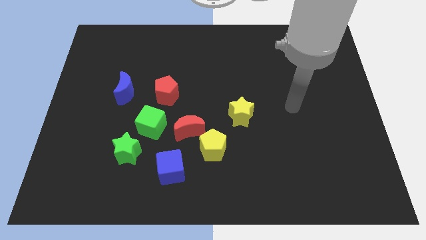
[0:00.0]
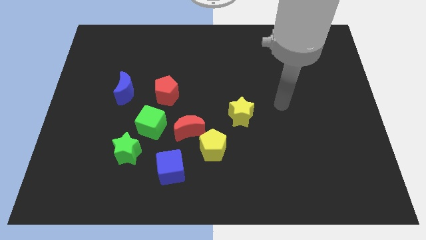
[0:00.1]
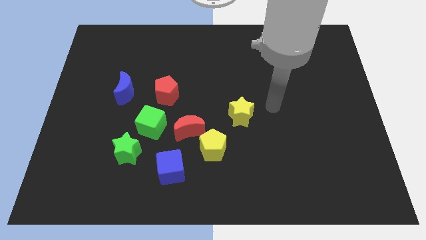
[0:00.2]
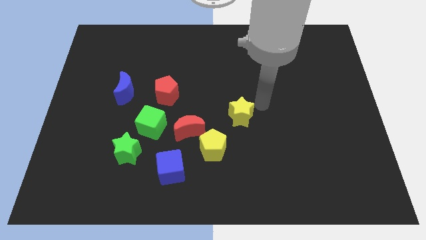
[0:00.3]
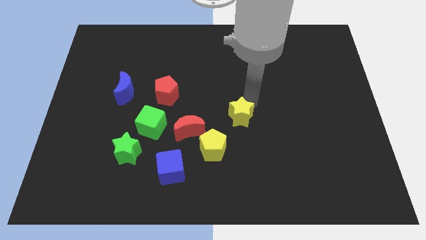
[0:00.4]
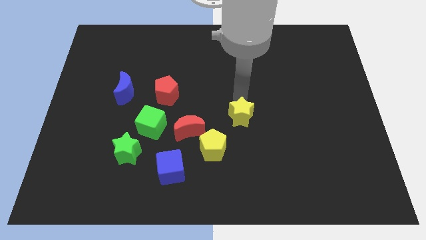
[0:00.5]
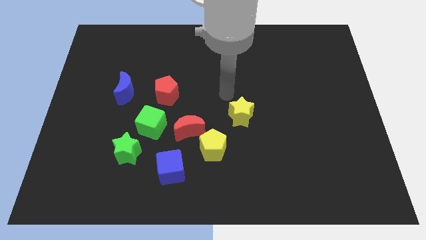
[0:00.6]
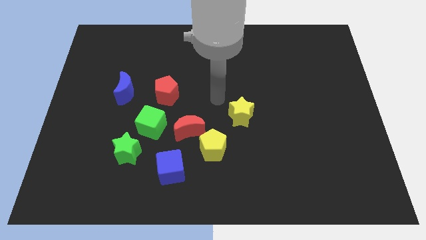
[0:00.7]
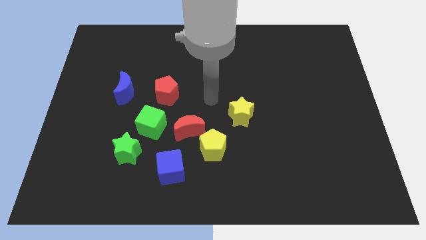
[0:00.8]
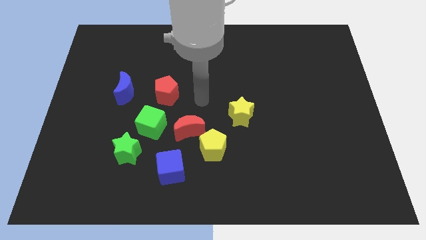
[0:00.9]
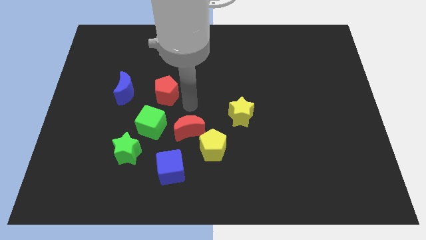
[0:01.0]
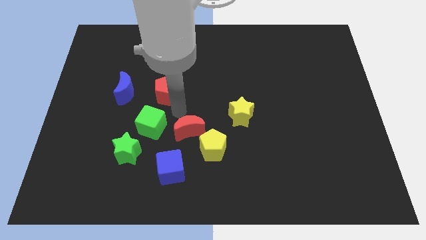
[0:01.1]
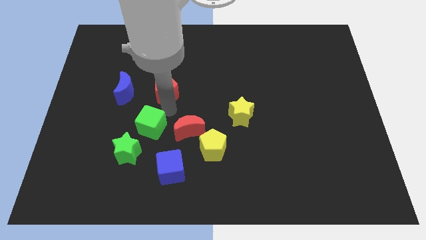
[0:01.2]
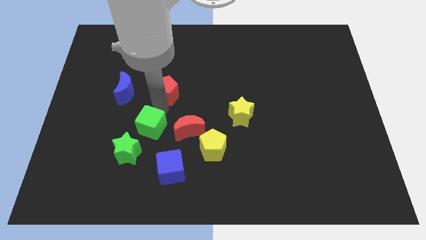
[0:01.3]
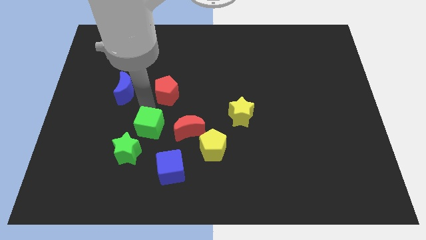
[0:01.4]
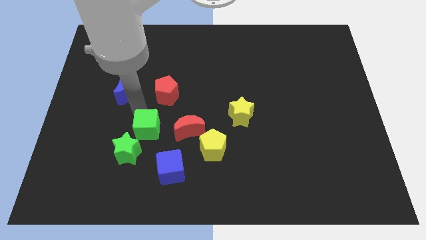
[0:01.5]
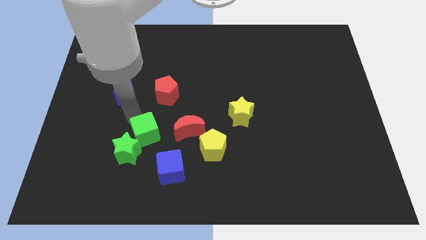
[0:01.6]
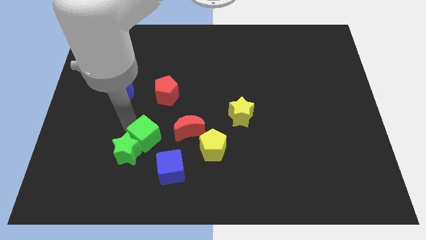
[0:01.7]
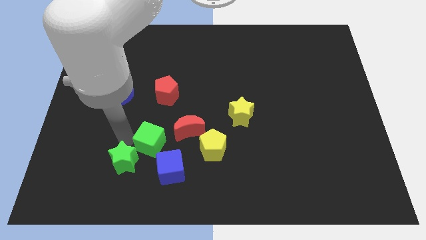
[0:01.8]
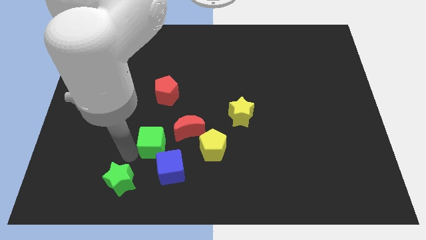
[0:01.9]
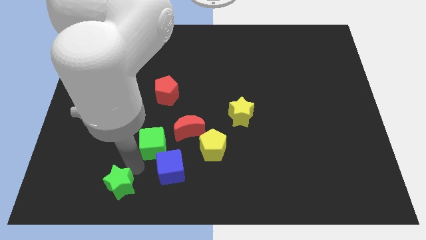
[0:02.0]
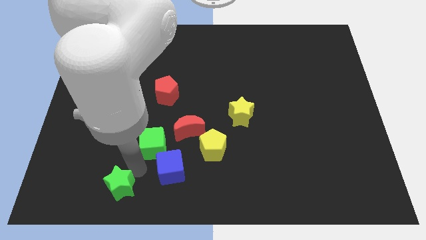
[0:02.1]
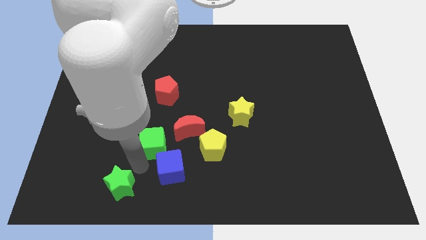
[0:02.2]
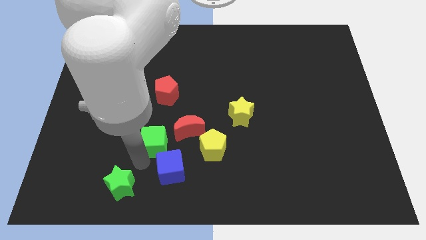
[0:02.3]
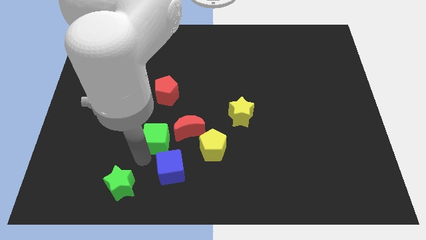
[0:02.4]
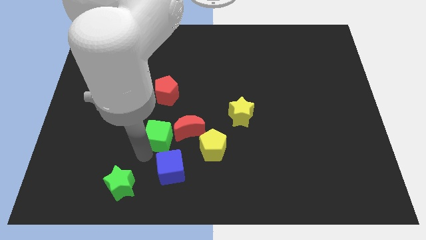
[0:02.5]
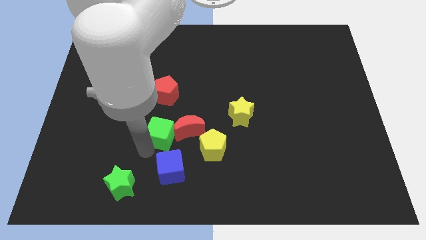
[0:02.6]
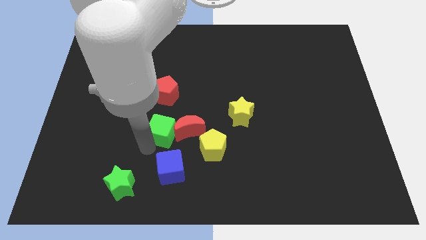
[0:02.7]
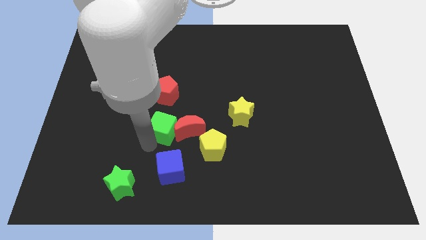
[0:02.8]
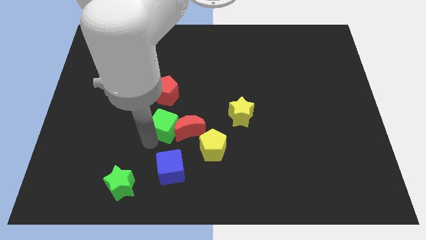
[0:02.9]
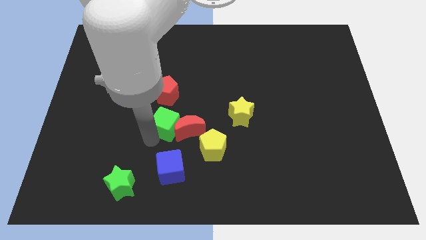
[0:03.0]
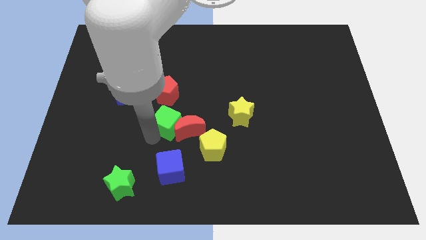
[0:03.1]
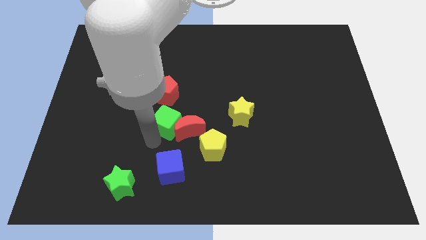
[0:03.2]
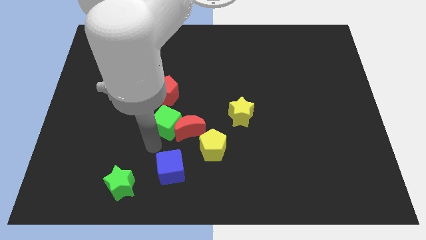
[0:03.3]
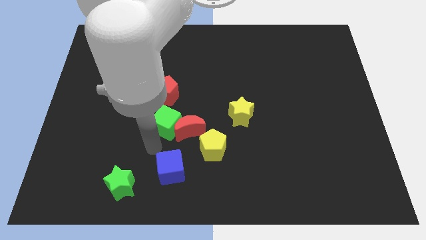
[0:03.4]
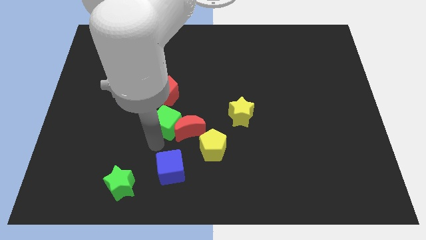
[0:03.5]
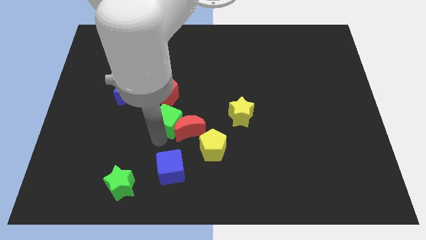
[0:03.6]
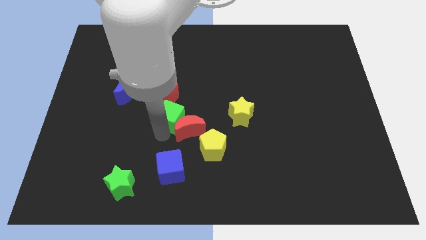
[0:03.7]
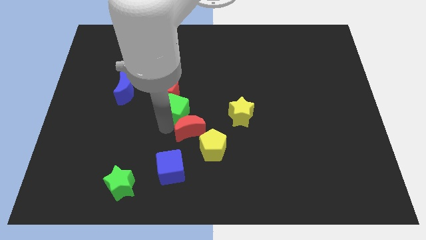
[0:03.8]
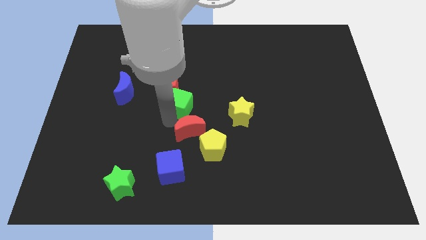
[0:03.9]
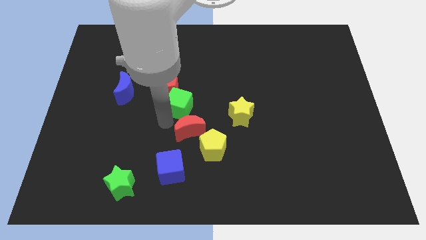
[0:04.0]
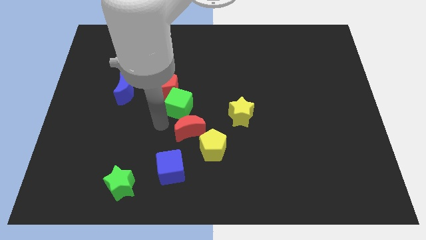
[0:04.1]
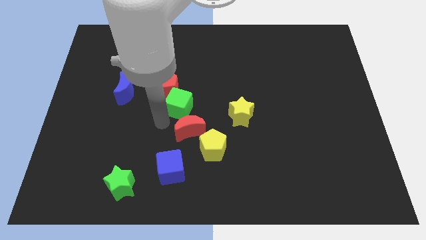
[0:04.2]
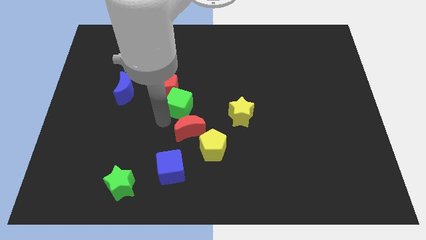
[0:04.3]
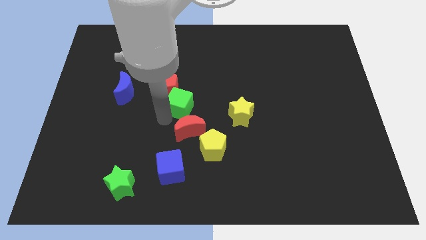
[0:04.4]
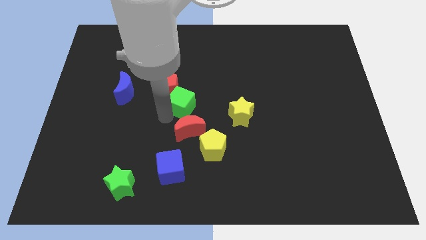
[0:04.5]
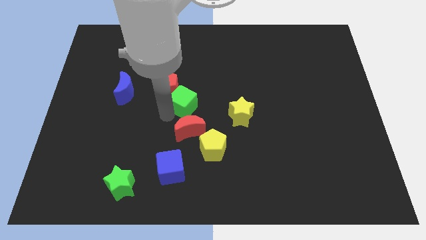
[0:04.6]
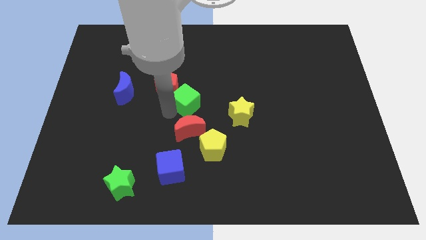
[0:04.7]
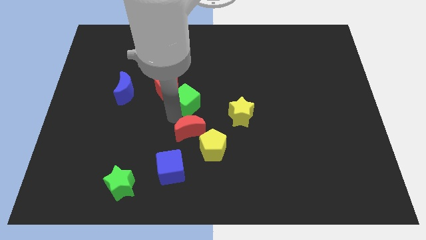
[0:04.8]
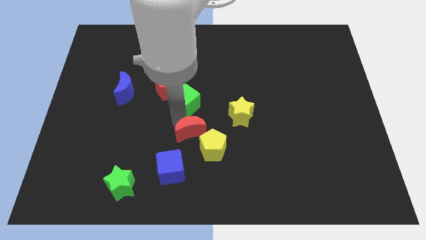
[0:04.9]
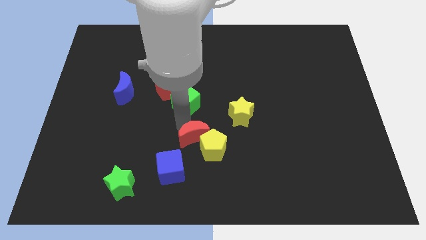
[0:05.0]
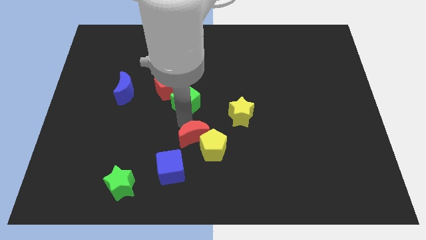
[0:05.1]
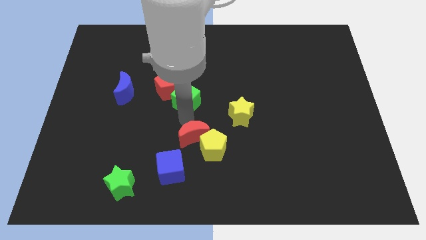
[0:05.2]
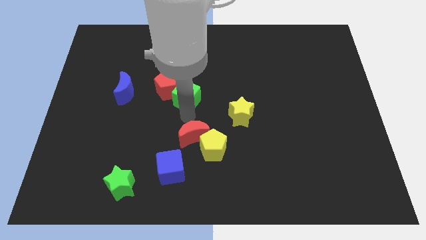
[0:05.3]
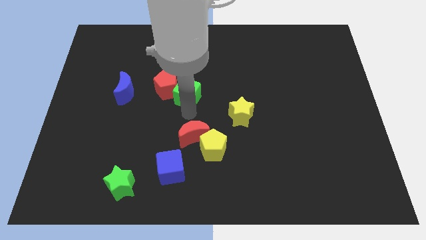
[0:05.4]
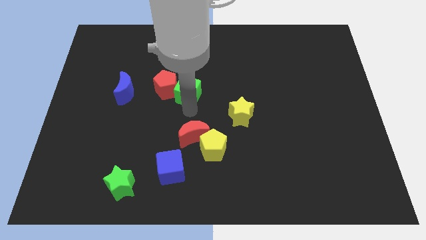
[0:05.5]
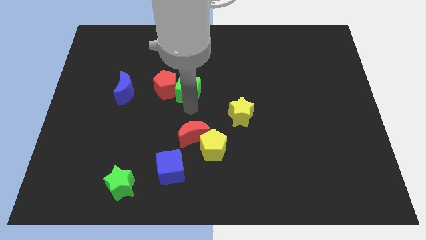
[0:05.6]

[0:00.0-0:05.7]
put the green cube diagonally up and to the right of the red pentagon
